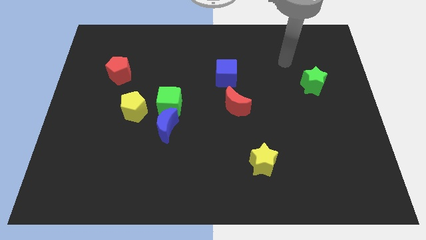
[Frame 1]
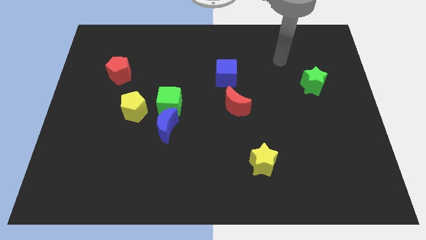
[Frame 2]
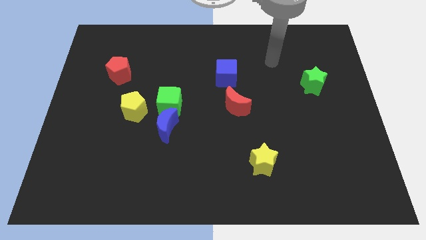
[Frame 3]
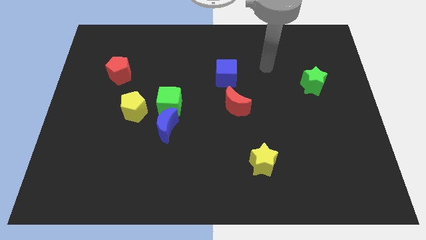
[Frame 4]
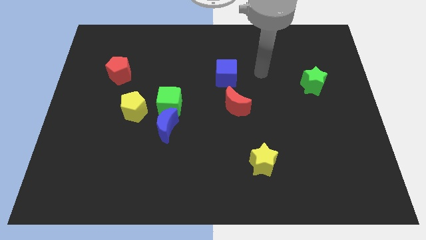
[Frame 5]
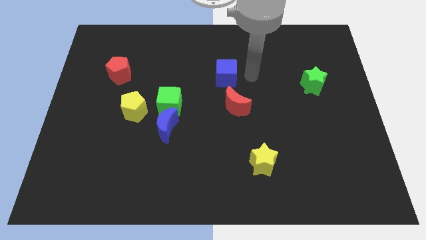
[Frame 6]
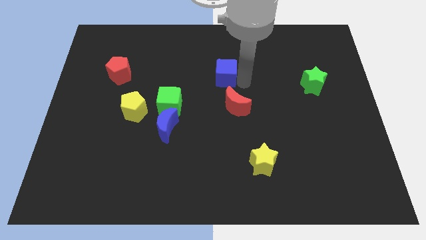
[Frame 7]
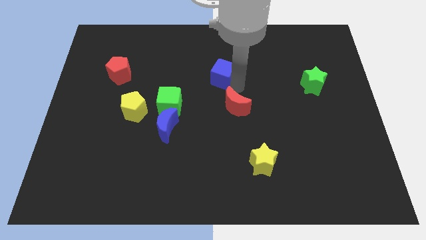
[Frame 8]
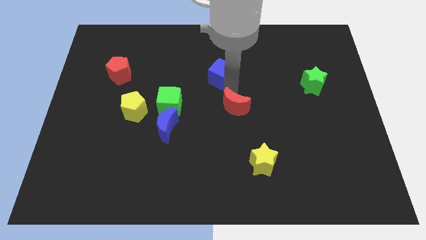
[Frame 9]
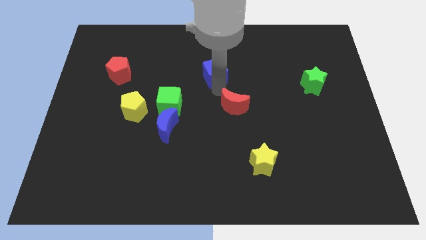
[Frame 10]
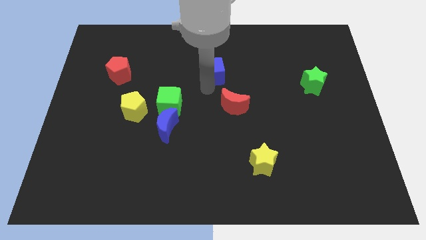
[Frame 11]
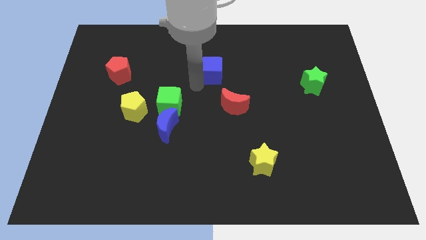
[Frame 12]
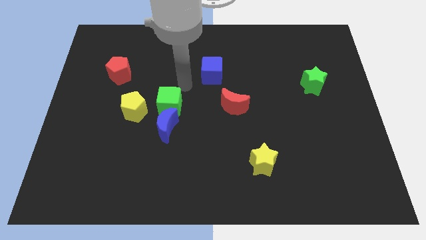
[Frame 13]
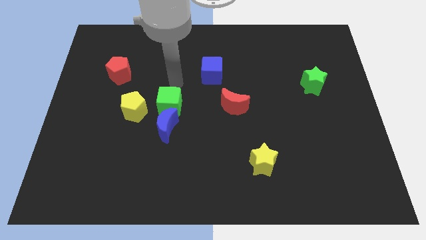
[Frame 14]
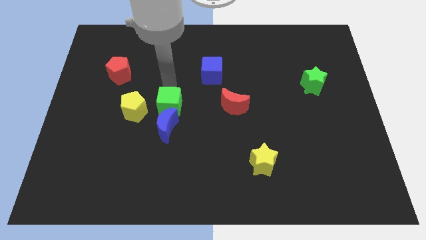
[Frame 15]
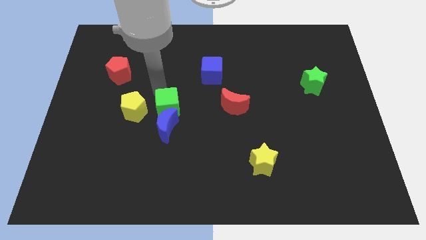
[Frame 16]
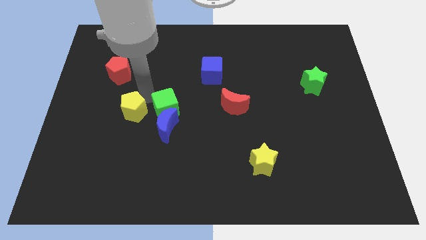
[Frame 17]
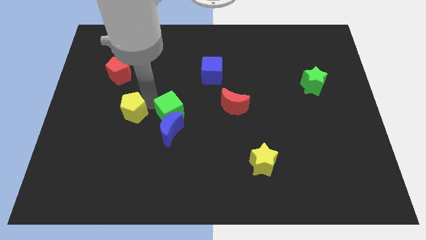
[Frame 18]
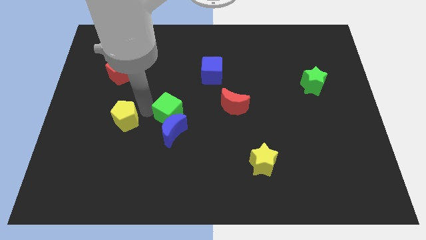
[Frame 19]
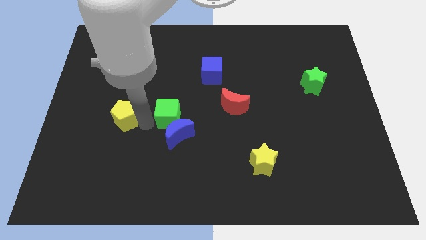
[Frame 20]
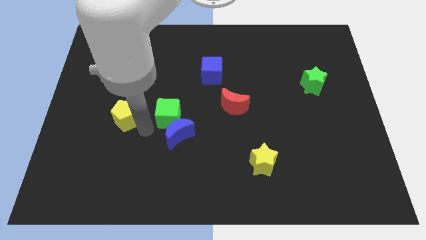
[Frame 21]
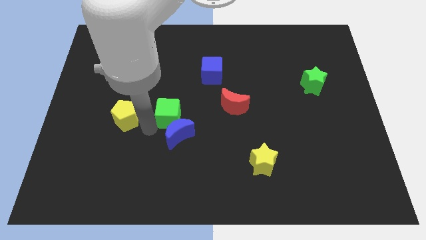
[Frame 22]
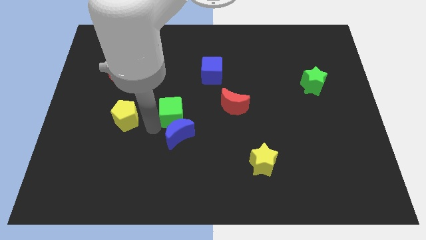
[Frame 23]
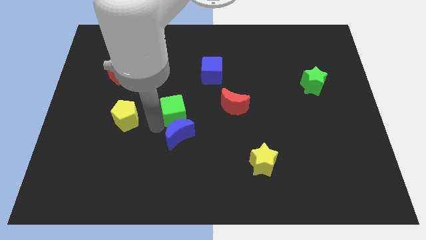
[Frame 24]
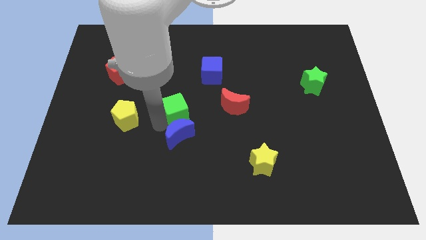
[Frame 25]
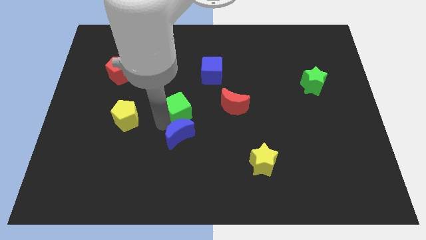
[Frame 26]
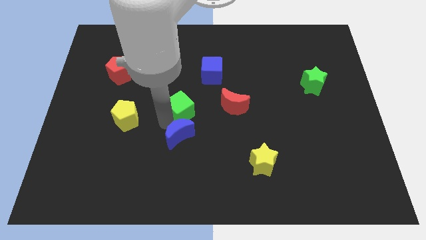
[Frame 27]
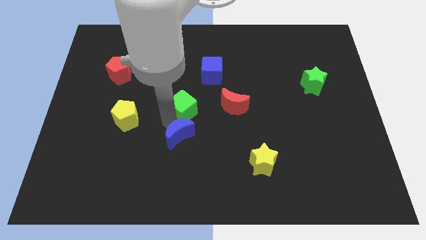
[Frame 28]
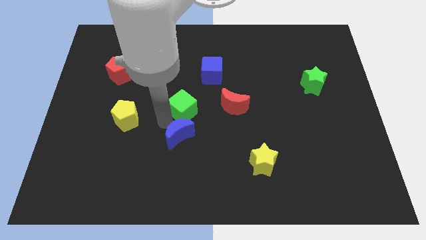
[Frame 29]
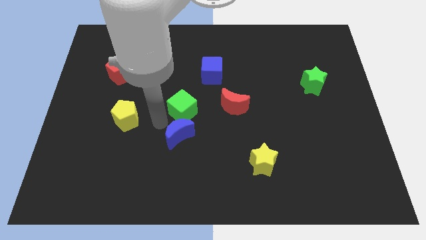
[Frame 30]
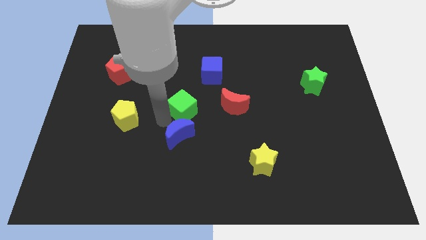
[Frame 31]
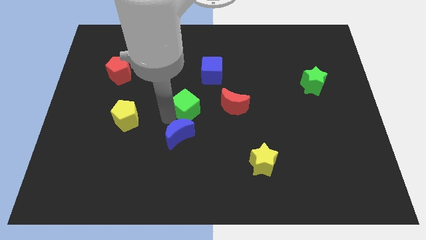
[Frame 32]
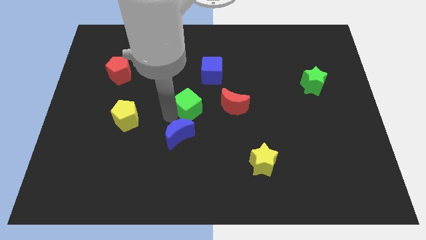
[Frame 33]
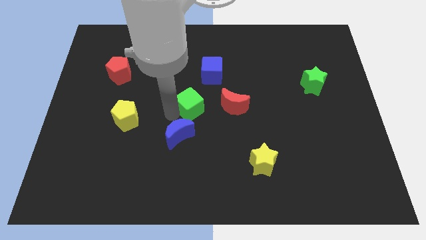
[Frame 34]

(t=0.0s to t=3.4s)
separate the green cube from the blue moon and yellow pentagon

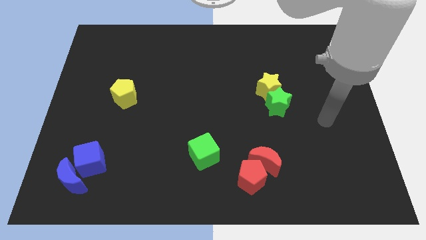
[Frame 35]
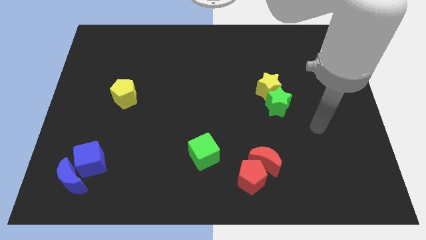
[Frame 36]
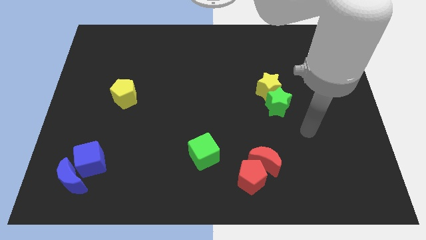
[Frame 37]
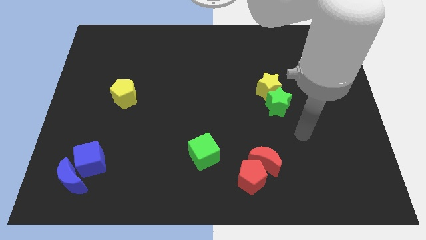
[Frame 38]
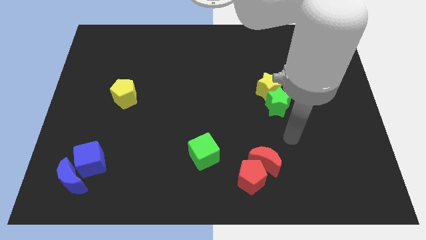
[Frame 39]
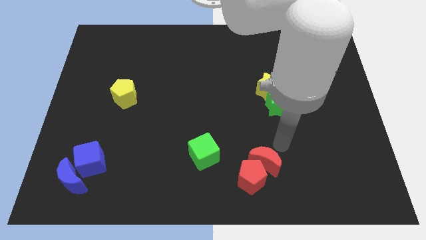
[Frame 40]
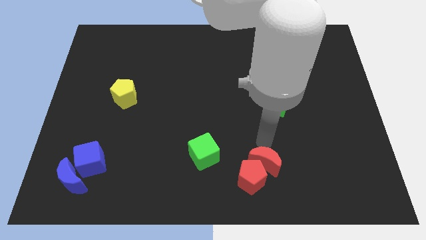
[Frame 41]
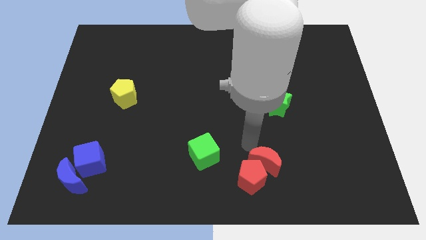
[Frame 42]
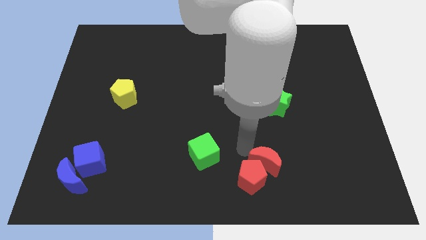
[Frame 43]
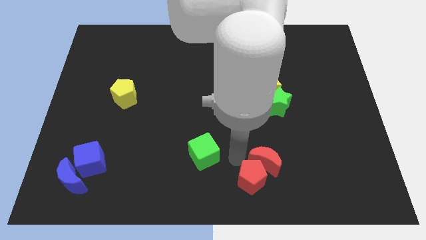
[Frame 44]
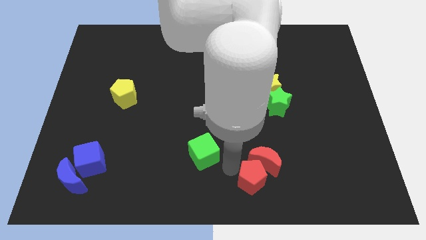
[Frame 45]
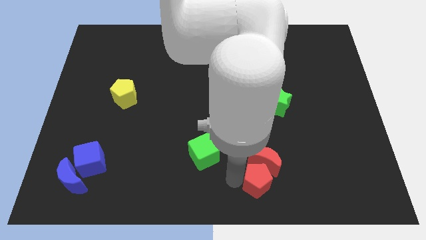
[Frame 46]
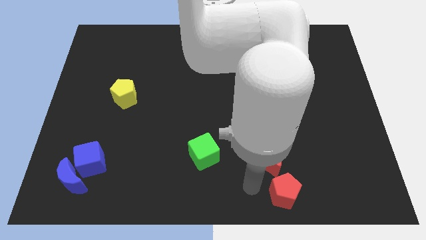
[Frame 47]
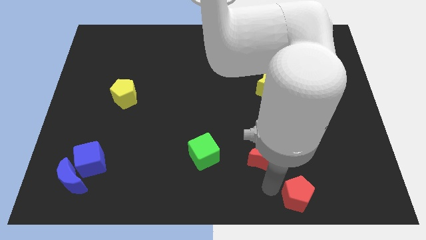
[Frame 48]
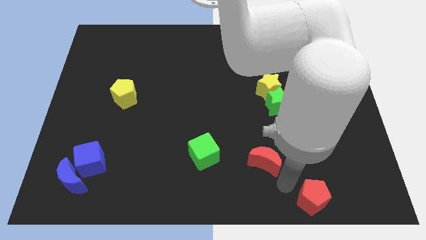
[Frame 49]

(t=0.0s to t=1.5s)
pull the red moon apart from the red pentagon

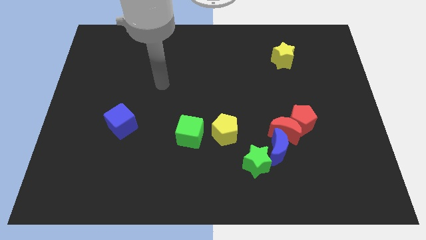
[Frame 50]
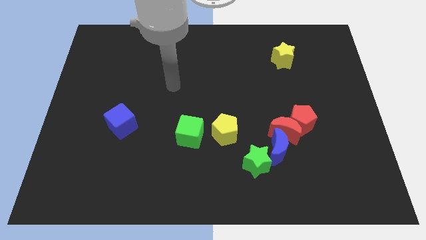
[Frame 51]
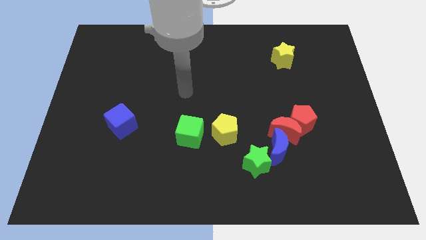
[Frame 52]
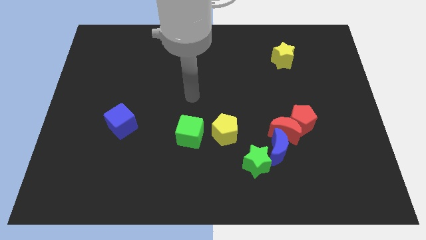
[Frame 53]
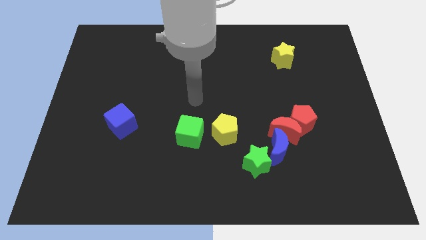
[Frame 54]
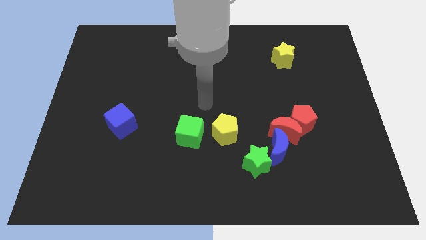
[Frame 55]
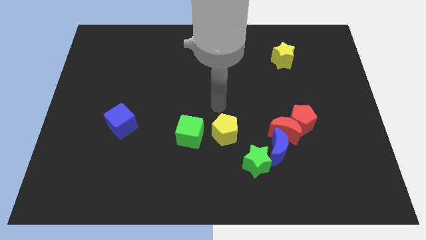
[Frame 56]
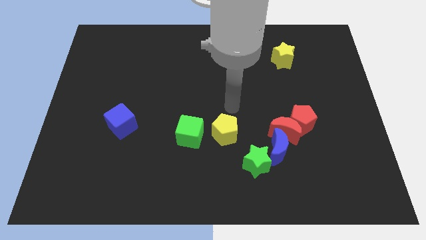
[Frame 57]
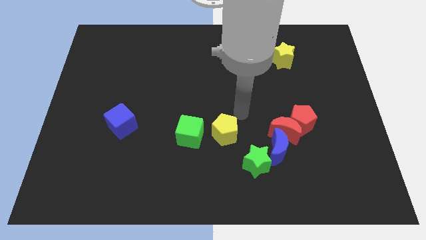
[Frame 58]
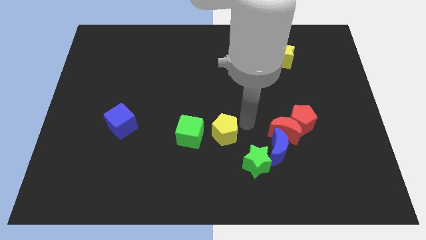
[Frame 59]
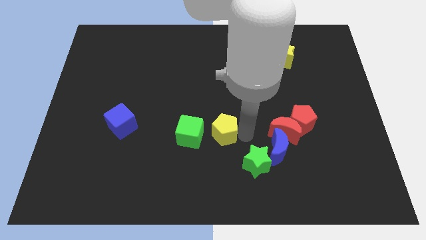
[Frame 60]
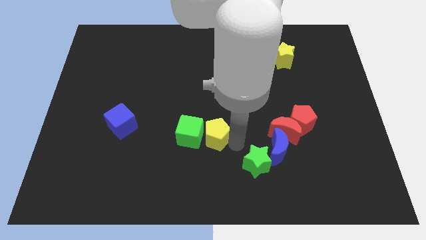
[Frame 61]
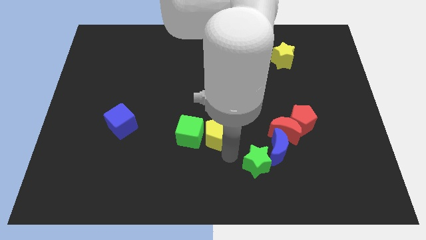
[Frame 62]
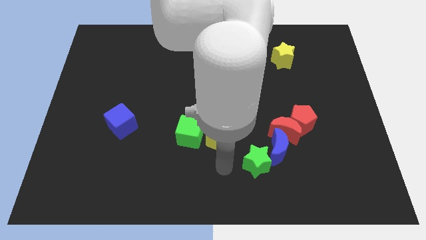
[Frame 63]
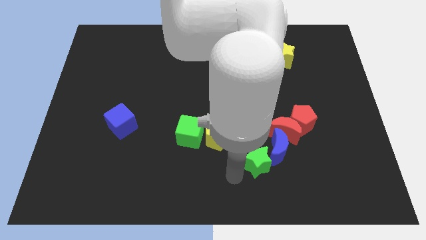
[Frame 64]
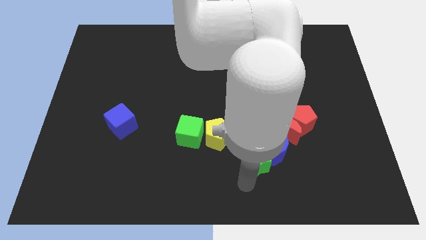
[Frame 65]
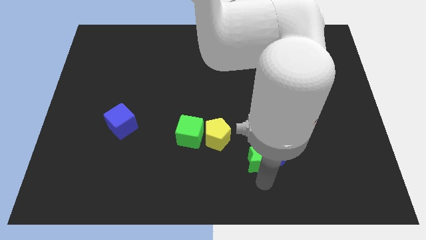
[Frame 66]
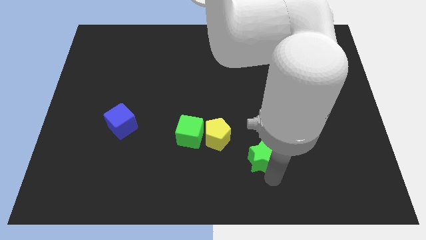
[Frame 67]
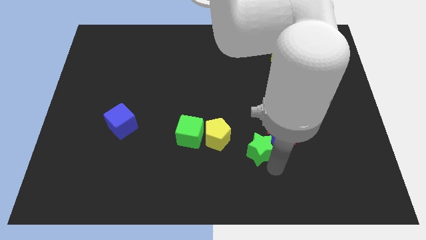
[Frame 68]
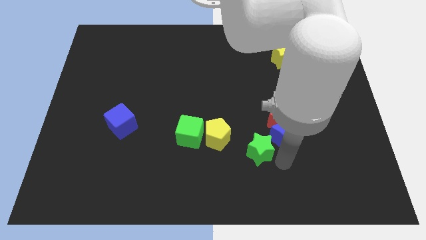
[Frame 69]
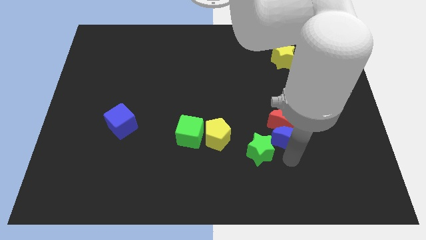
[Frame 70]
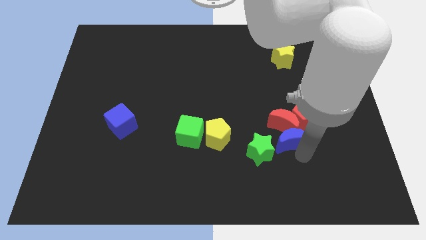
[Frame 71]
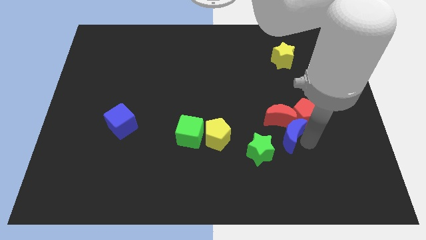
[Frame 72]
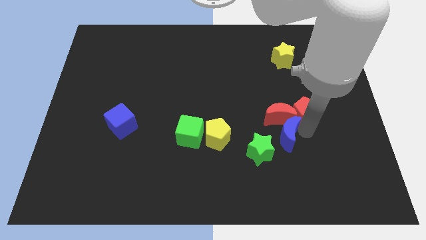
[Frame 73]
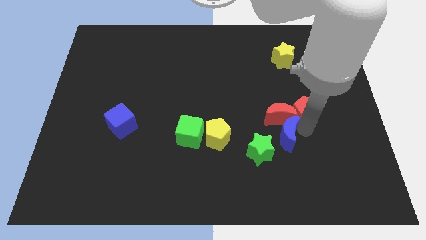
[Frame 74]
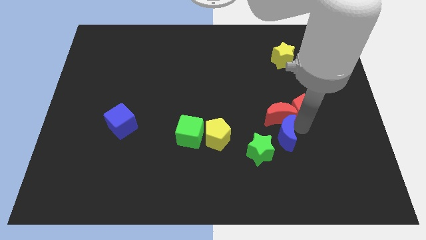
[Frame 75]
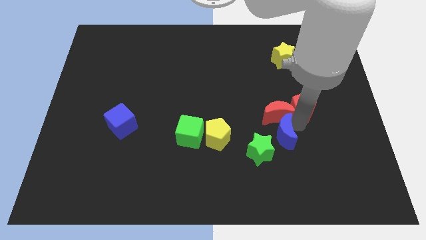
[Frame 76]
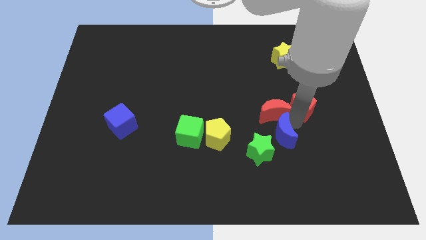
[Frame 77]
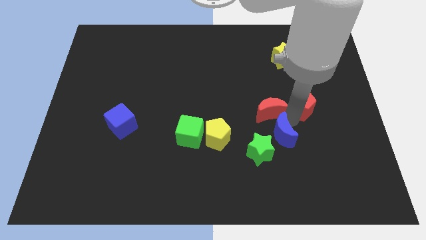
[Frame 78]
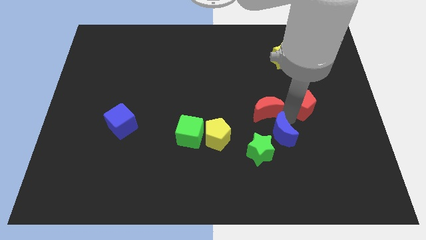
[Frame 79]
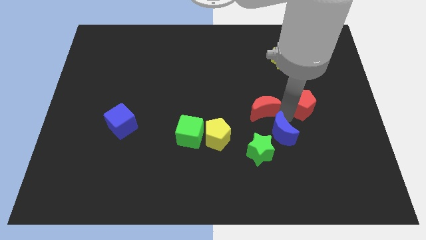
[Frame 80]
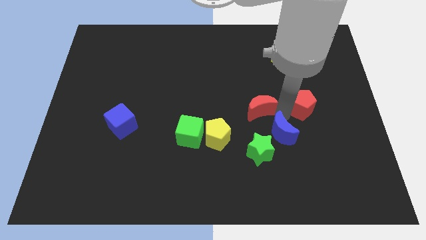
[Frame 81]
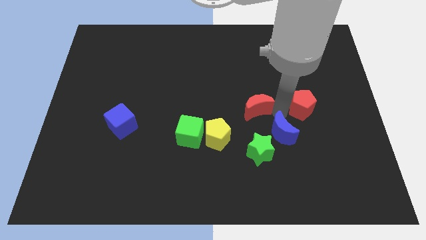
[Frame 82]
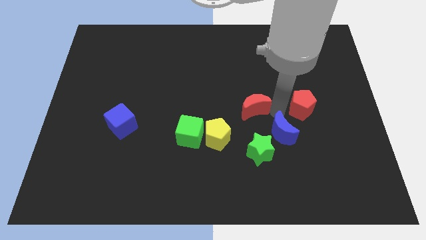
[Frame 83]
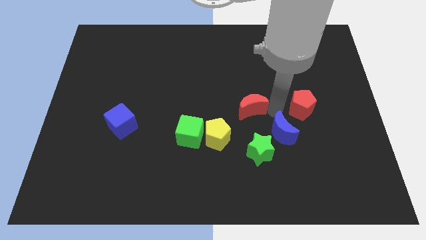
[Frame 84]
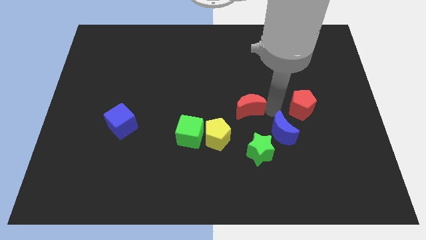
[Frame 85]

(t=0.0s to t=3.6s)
pull the red moon apart from the red pentagon and blue moon

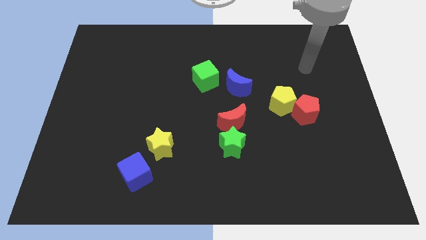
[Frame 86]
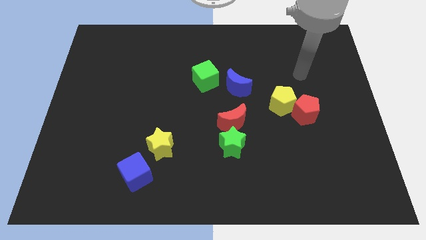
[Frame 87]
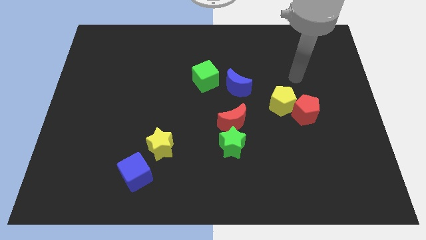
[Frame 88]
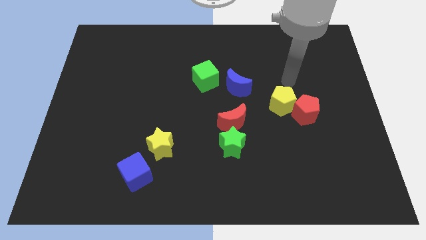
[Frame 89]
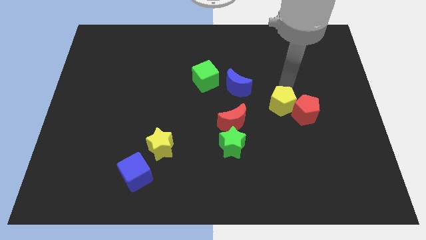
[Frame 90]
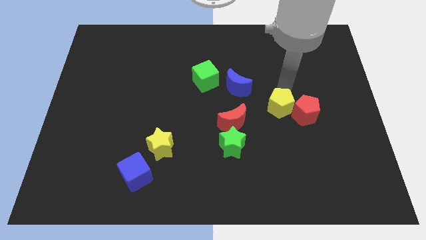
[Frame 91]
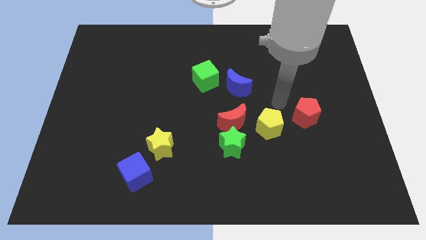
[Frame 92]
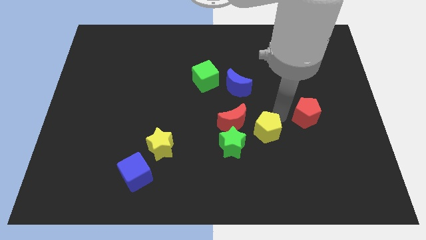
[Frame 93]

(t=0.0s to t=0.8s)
separate the red pentagon from the yellow pentagon

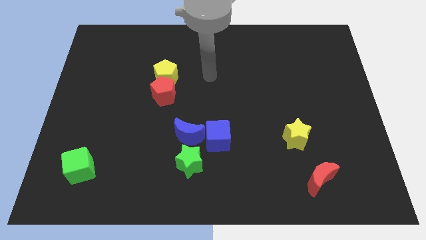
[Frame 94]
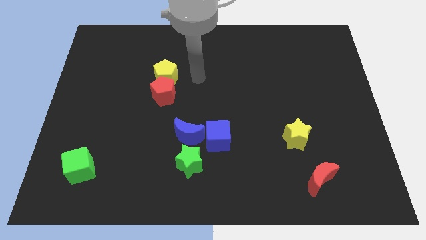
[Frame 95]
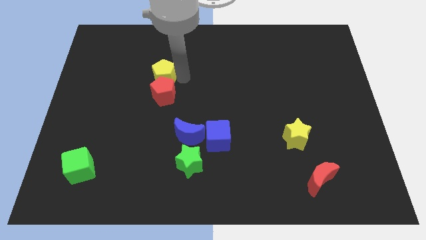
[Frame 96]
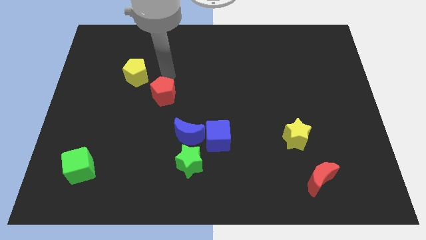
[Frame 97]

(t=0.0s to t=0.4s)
move the red pentagon away from the yellow pentagon
